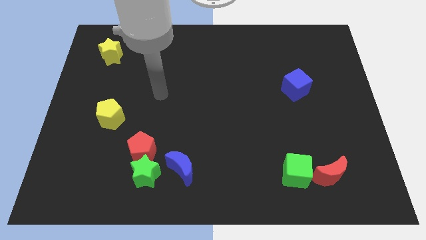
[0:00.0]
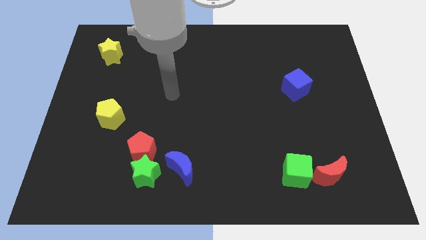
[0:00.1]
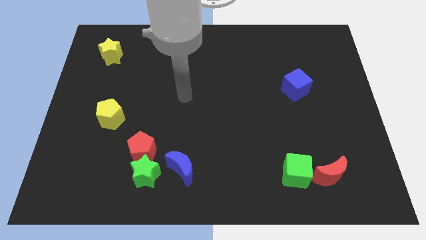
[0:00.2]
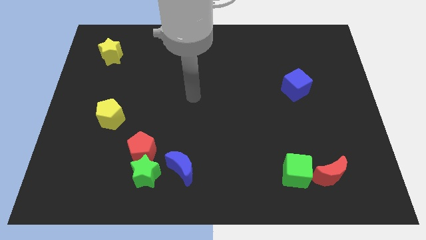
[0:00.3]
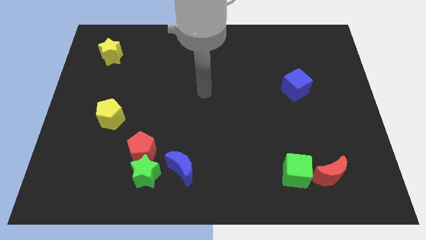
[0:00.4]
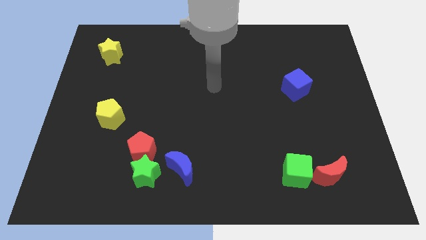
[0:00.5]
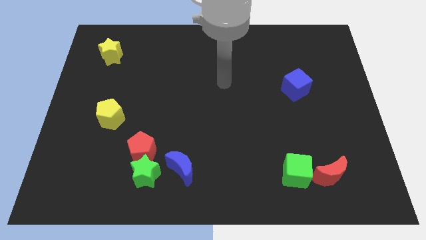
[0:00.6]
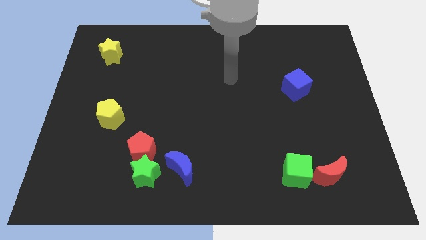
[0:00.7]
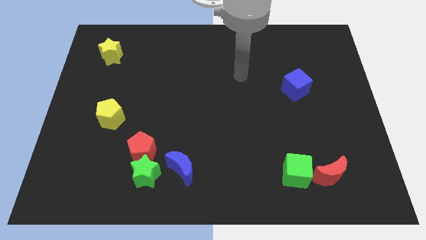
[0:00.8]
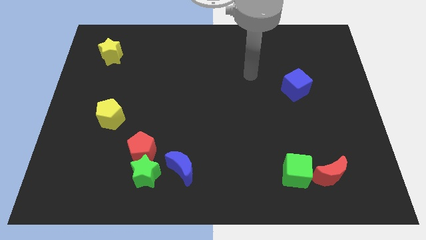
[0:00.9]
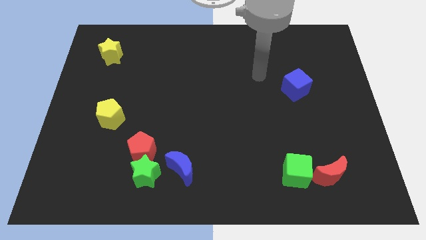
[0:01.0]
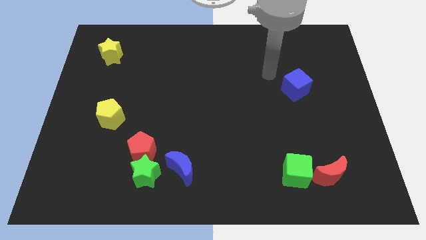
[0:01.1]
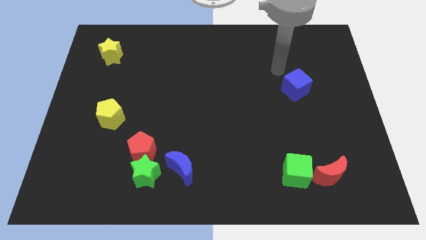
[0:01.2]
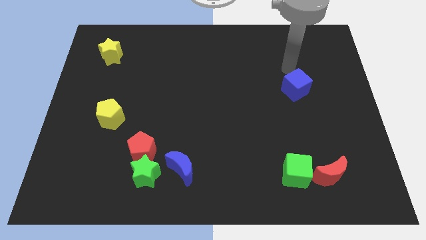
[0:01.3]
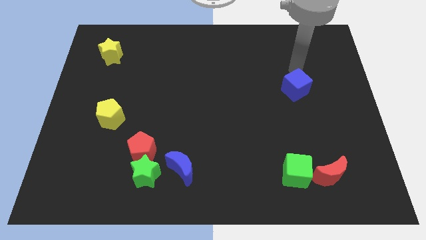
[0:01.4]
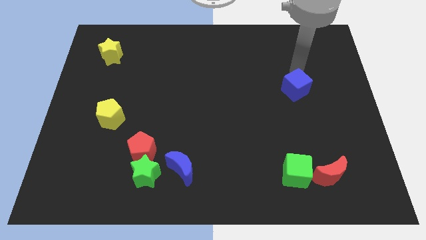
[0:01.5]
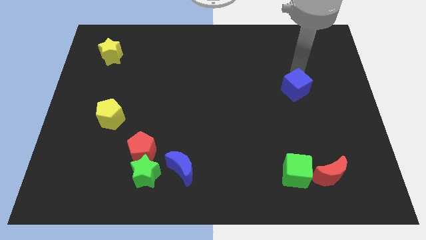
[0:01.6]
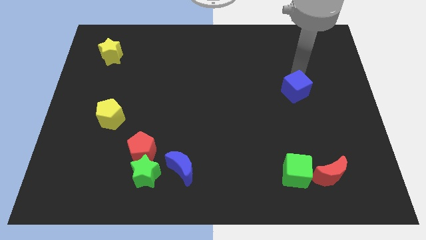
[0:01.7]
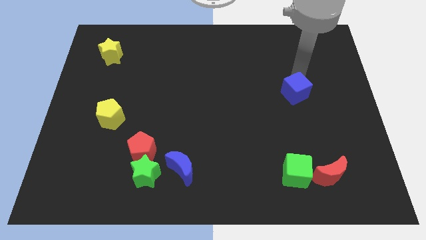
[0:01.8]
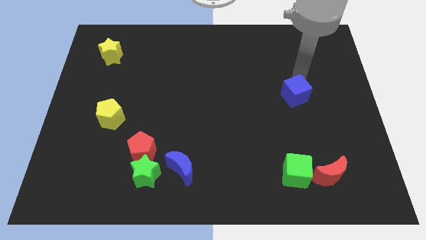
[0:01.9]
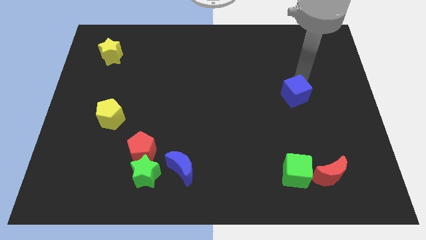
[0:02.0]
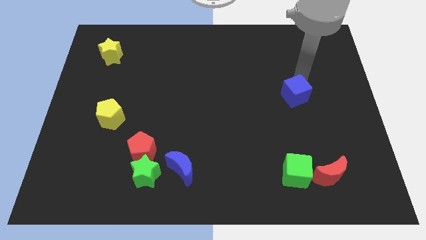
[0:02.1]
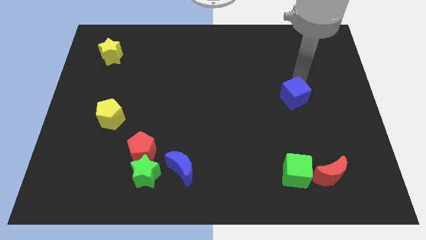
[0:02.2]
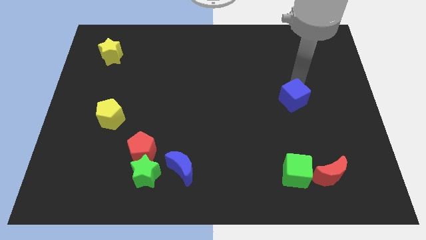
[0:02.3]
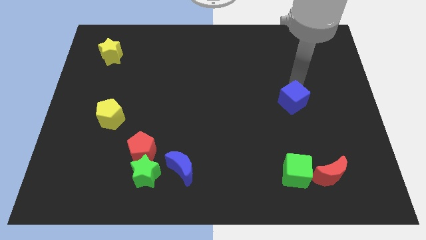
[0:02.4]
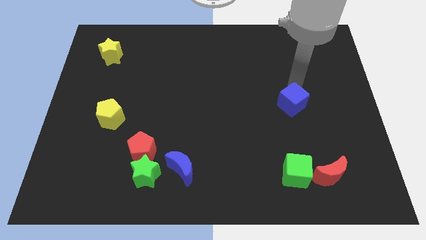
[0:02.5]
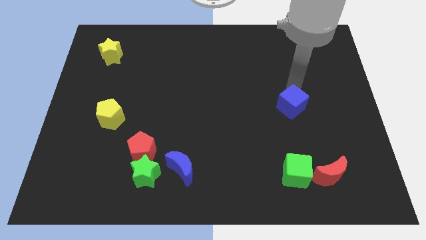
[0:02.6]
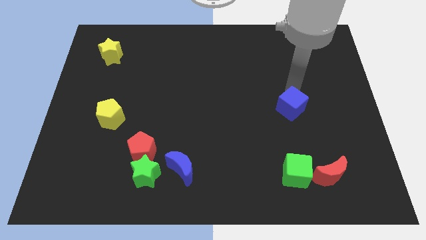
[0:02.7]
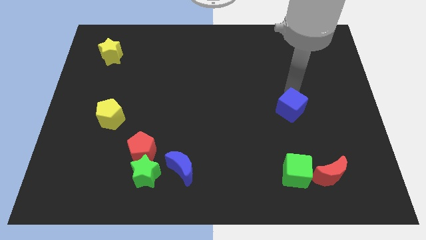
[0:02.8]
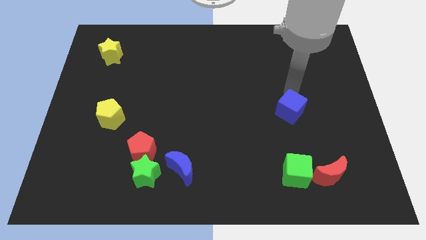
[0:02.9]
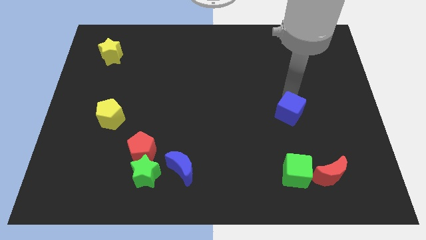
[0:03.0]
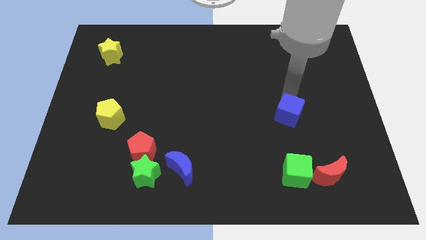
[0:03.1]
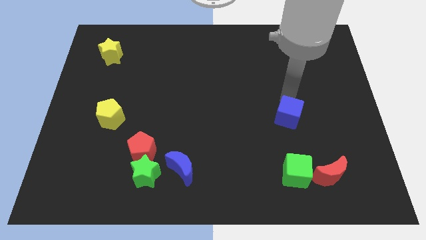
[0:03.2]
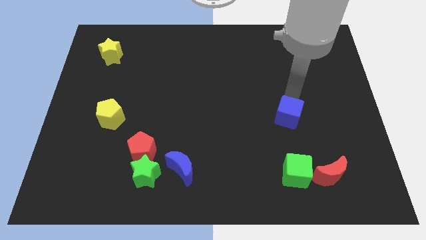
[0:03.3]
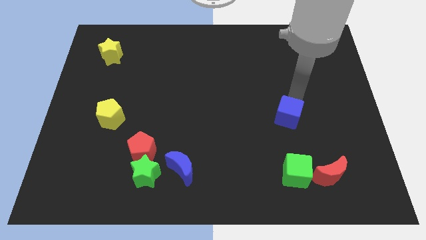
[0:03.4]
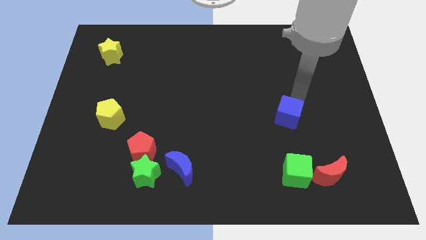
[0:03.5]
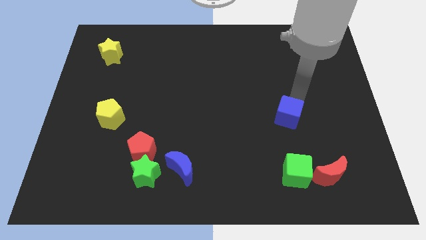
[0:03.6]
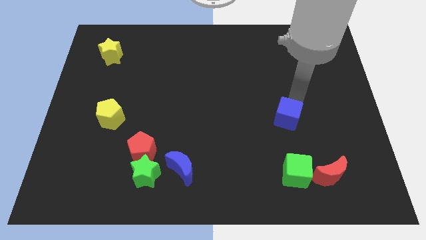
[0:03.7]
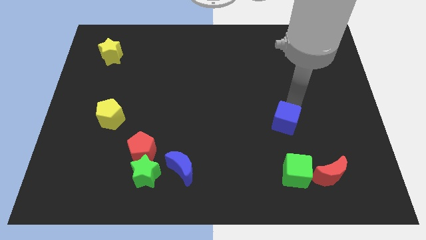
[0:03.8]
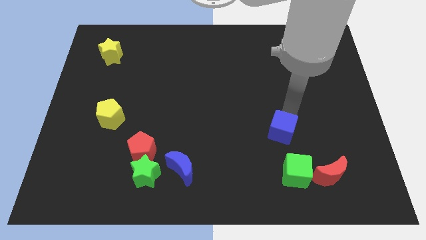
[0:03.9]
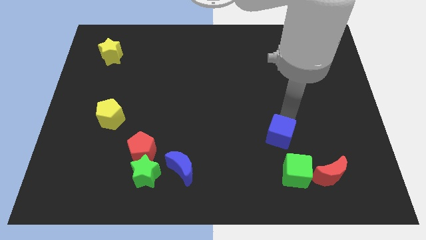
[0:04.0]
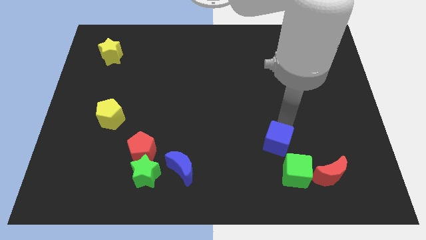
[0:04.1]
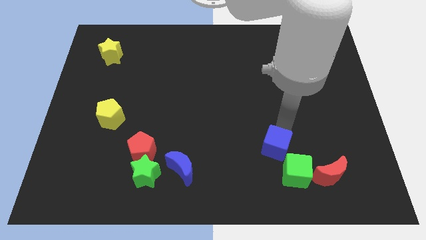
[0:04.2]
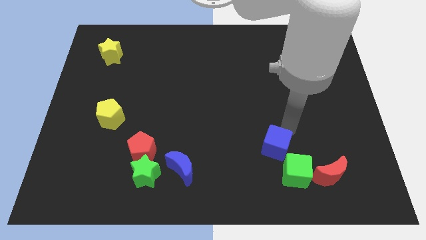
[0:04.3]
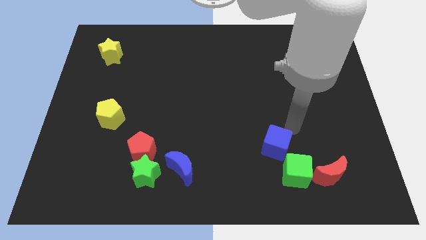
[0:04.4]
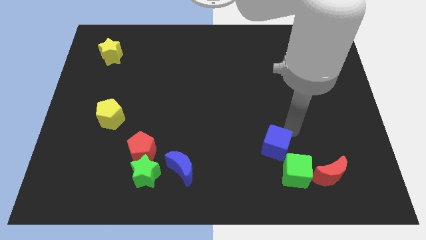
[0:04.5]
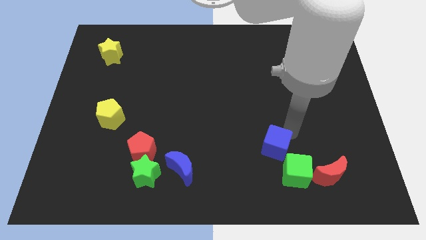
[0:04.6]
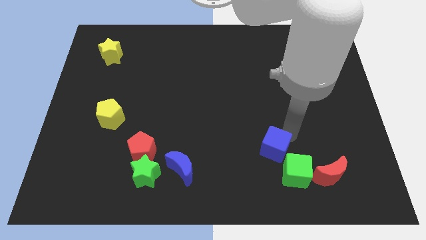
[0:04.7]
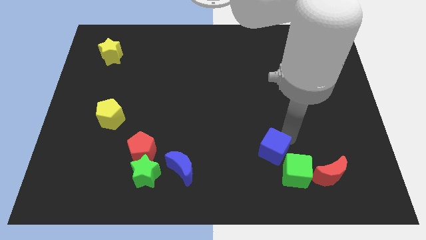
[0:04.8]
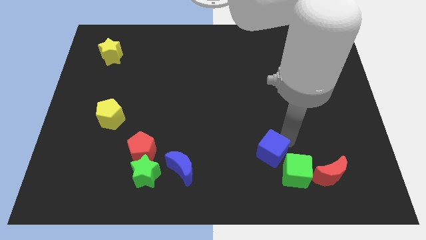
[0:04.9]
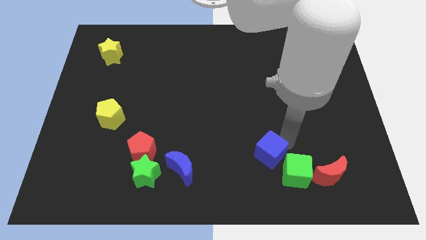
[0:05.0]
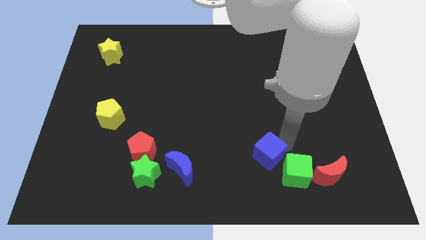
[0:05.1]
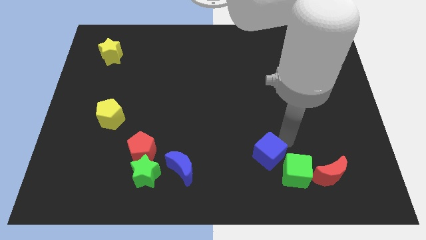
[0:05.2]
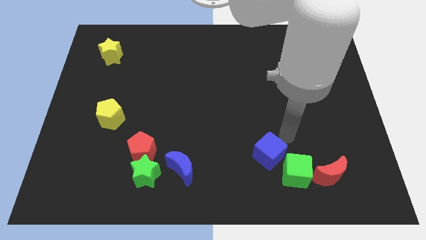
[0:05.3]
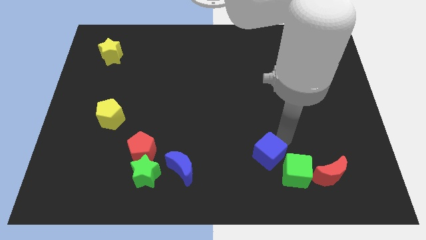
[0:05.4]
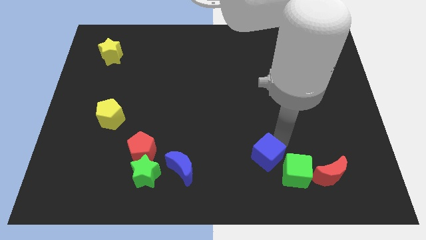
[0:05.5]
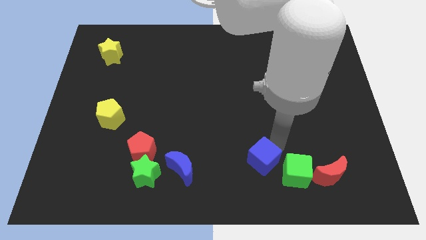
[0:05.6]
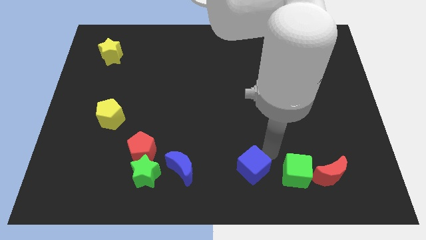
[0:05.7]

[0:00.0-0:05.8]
slide the blue cube to the bottom

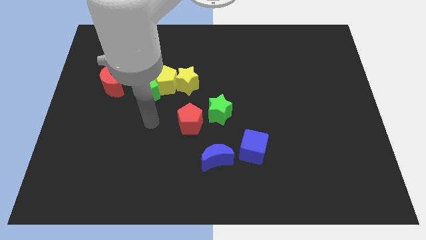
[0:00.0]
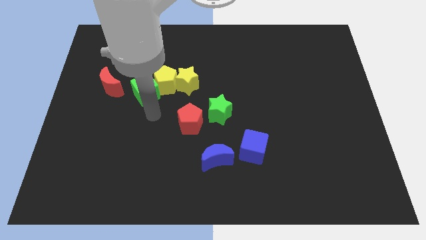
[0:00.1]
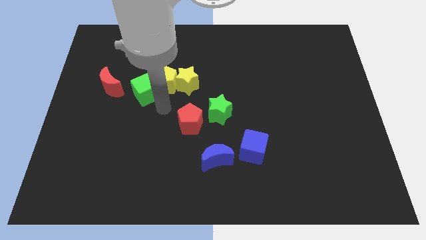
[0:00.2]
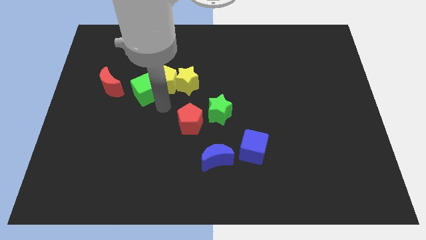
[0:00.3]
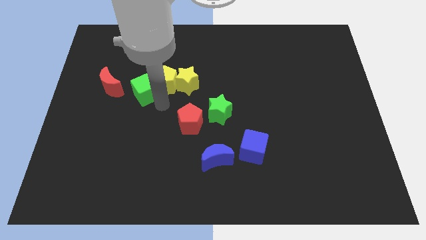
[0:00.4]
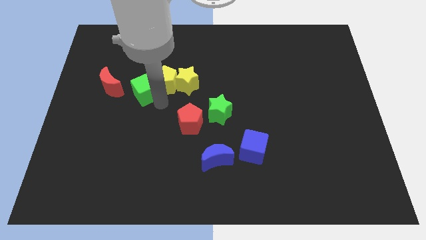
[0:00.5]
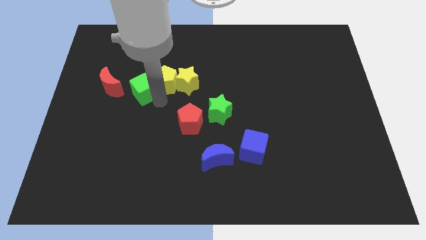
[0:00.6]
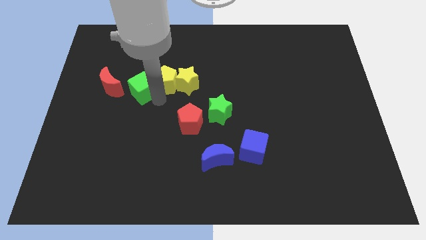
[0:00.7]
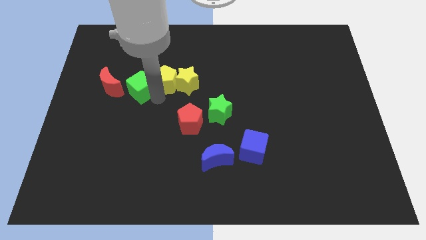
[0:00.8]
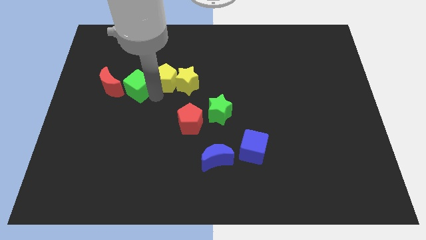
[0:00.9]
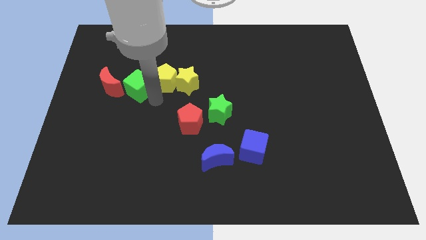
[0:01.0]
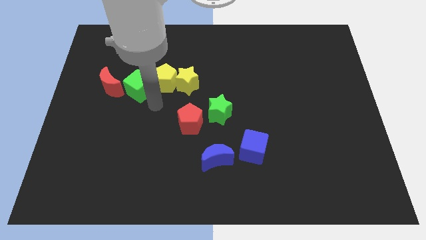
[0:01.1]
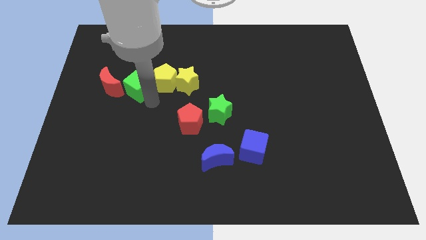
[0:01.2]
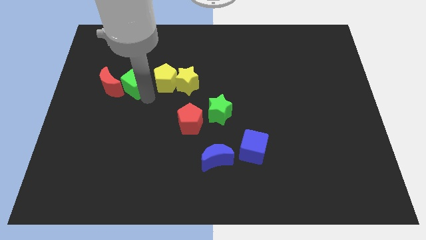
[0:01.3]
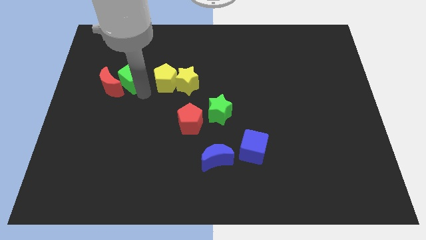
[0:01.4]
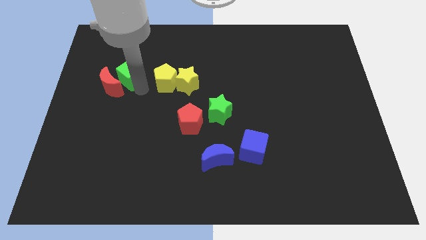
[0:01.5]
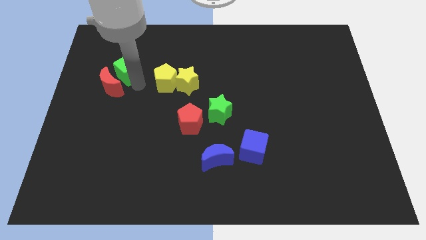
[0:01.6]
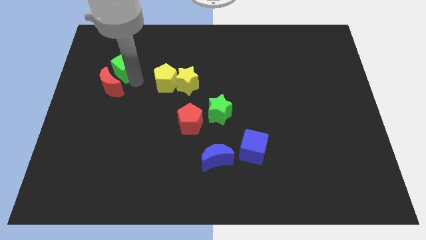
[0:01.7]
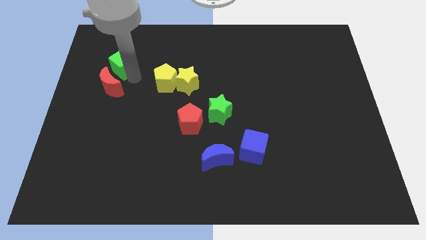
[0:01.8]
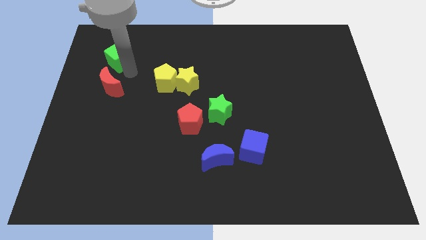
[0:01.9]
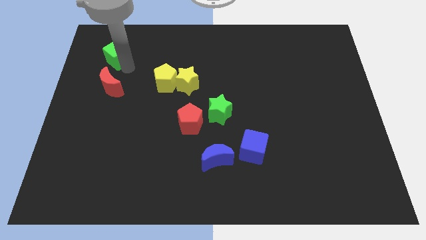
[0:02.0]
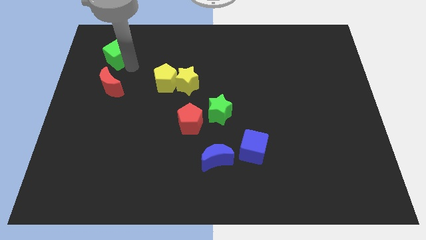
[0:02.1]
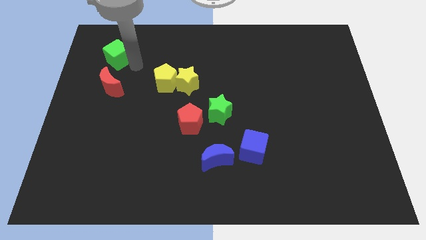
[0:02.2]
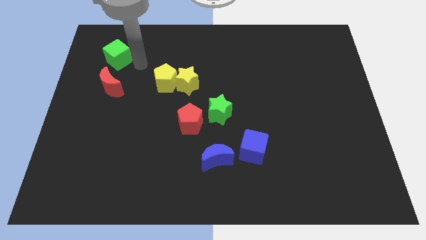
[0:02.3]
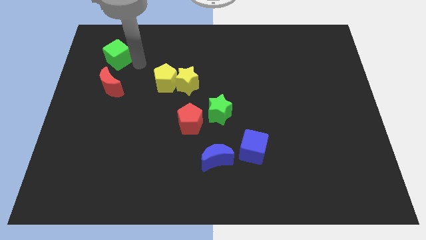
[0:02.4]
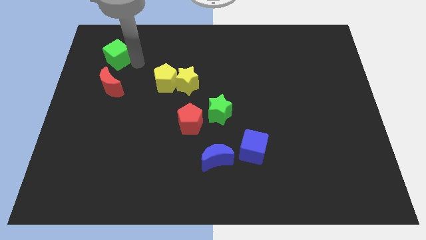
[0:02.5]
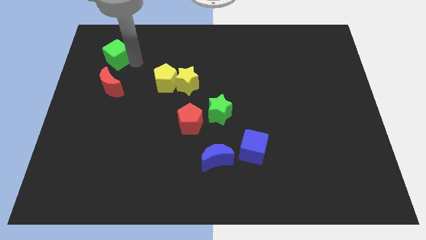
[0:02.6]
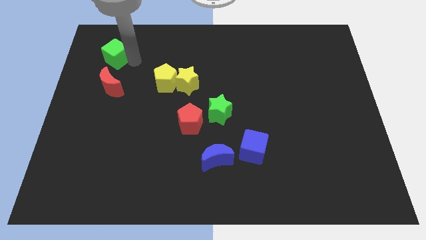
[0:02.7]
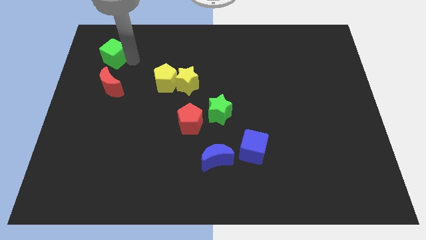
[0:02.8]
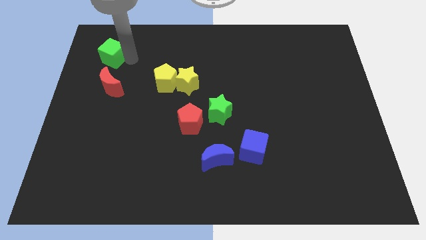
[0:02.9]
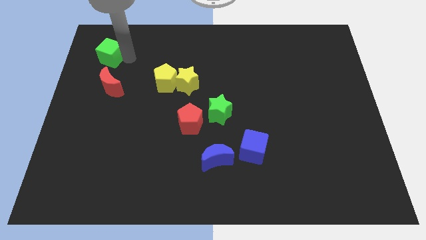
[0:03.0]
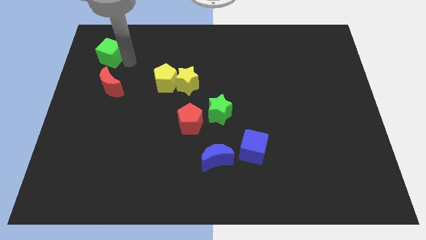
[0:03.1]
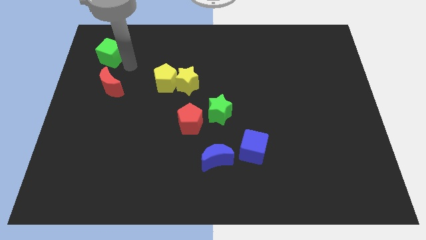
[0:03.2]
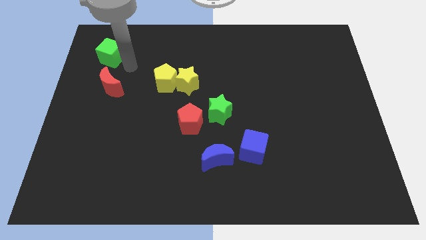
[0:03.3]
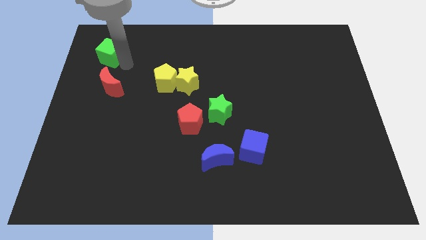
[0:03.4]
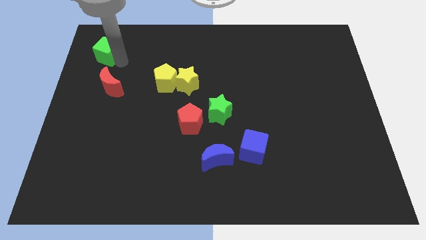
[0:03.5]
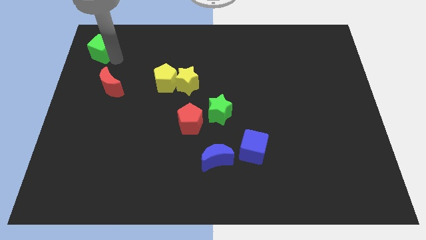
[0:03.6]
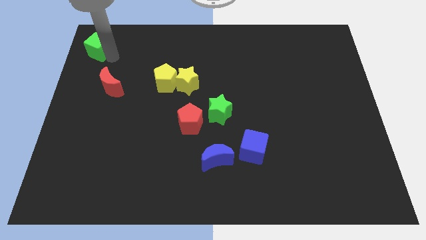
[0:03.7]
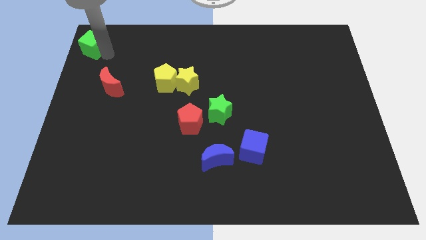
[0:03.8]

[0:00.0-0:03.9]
move the green cube to the top left
